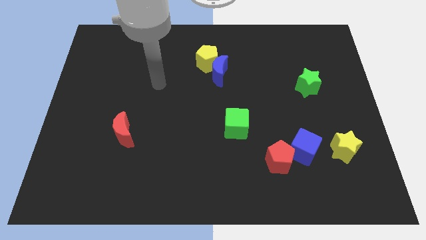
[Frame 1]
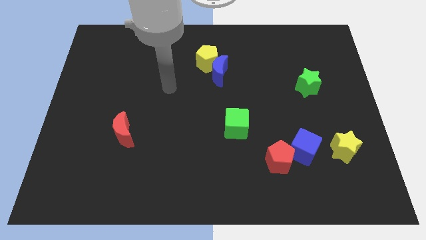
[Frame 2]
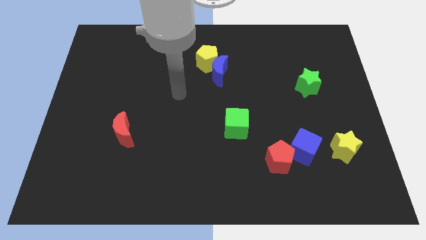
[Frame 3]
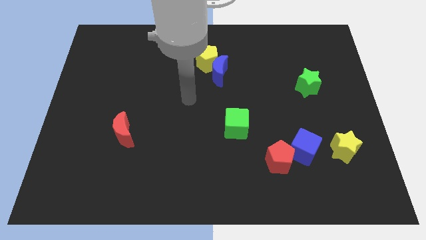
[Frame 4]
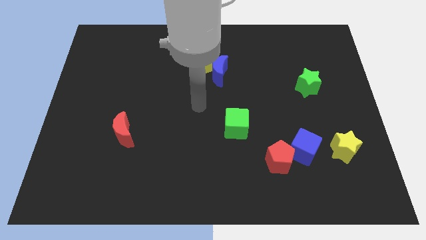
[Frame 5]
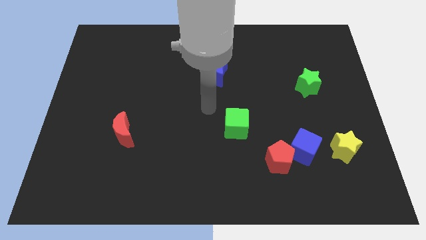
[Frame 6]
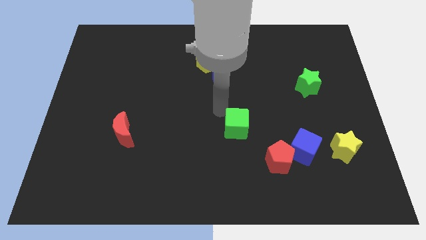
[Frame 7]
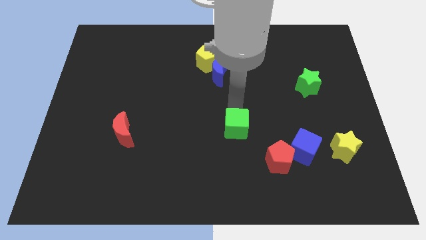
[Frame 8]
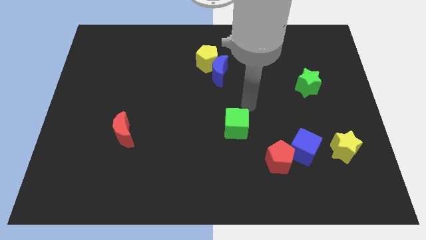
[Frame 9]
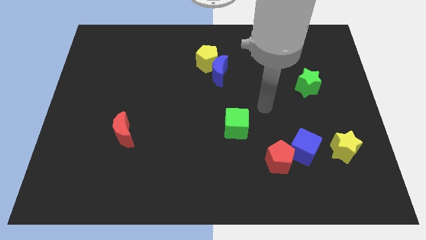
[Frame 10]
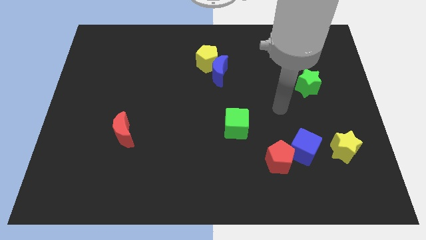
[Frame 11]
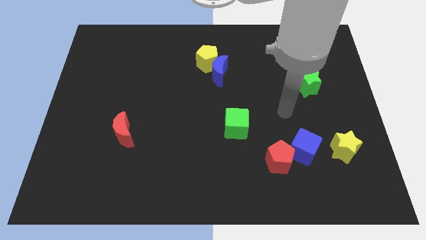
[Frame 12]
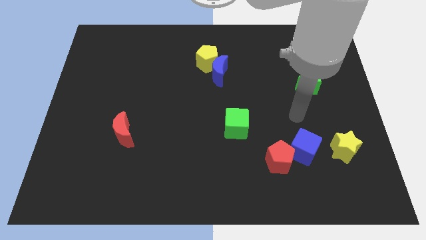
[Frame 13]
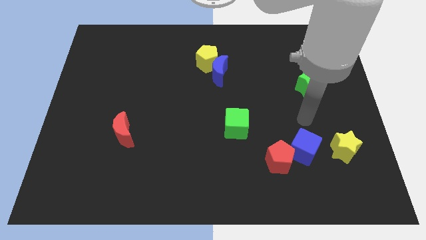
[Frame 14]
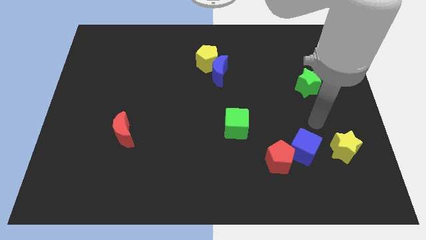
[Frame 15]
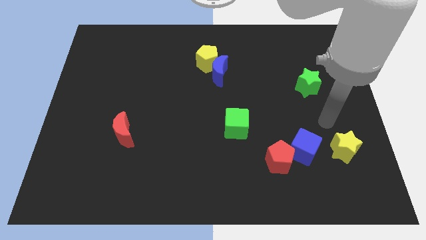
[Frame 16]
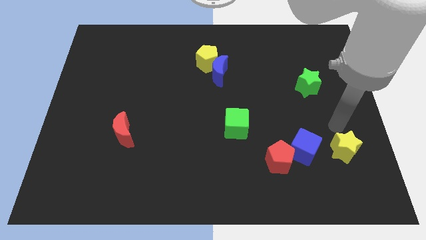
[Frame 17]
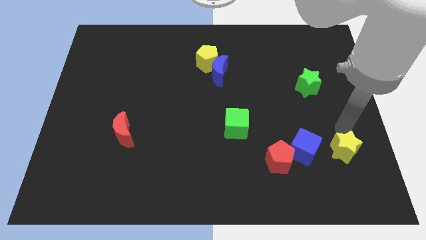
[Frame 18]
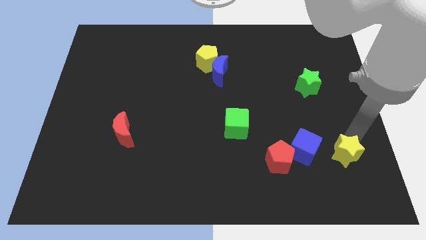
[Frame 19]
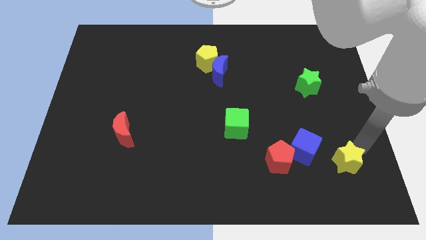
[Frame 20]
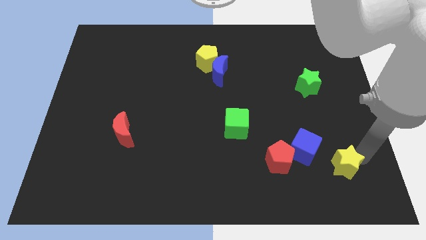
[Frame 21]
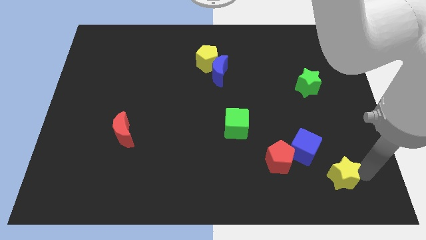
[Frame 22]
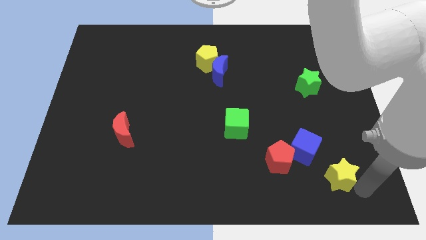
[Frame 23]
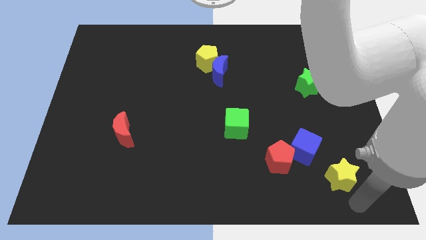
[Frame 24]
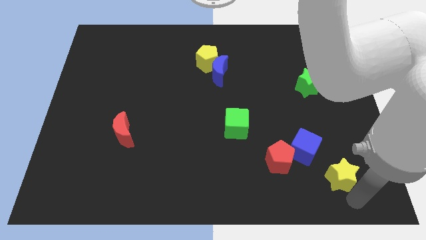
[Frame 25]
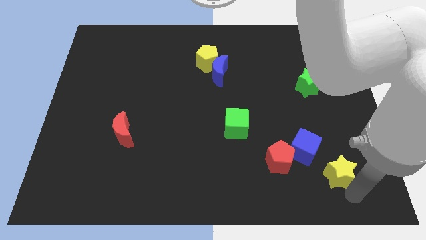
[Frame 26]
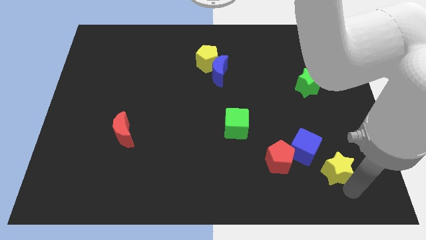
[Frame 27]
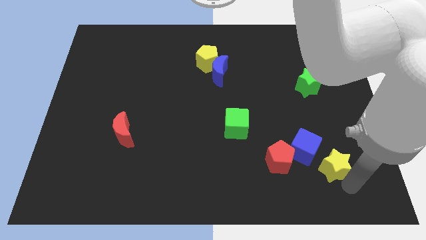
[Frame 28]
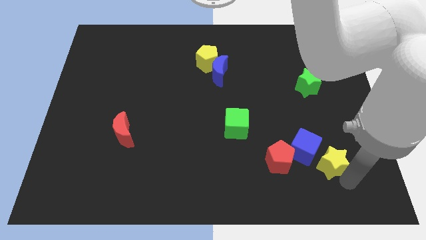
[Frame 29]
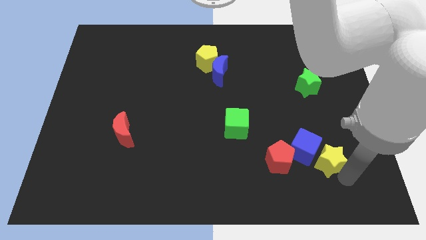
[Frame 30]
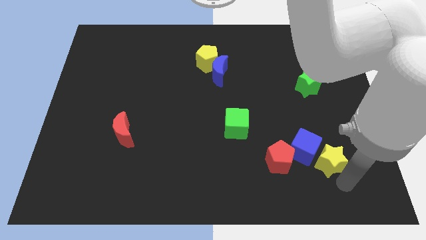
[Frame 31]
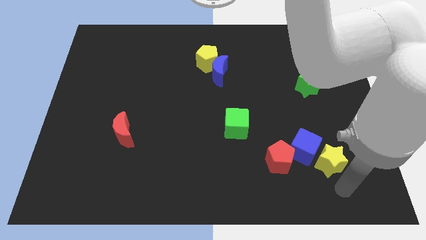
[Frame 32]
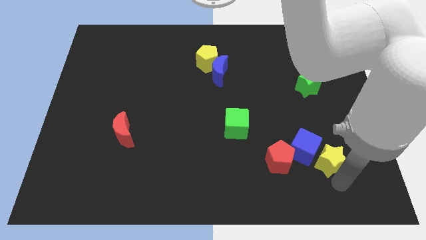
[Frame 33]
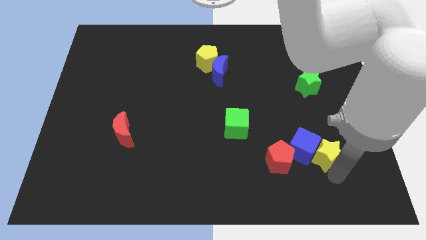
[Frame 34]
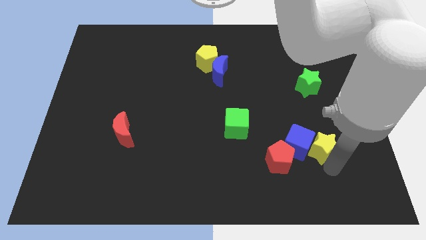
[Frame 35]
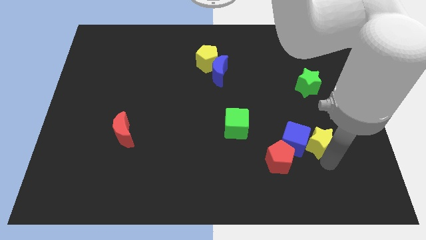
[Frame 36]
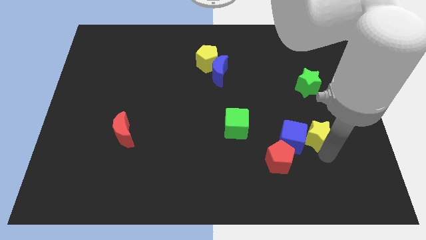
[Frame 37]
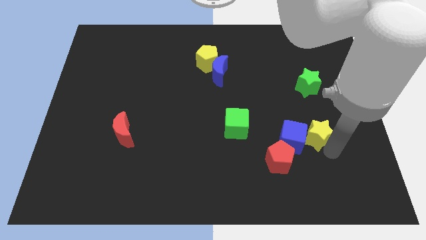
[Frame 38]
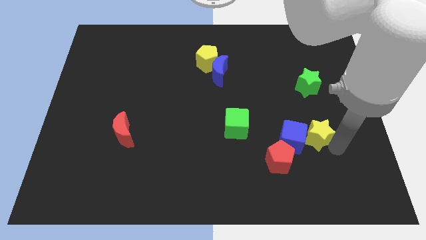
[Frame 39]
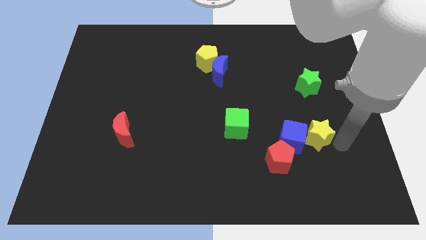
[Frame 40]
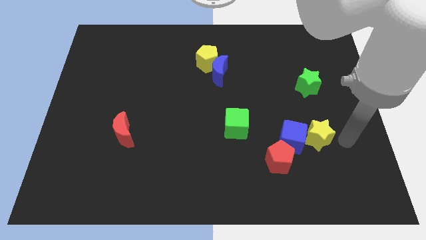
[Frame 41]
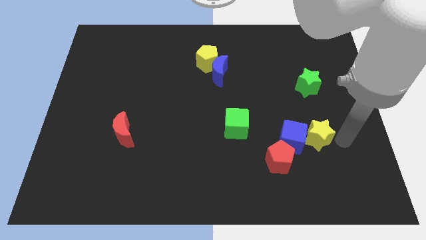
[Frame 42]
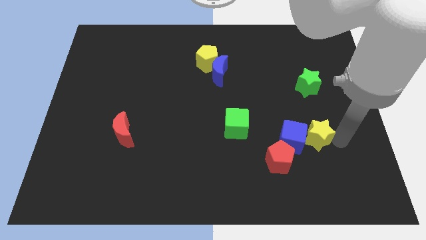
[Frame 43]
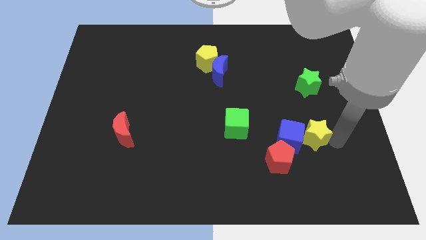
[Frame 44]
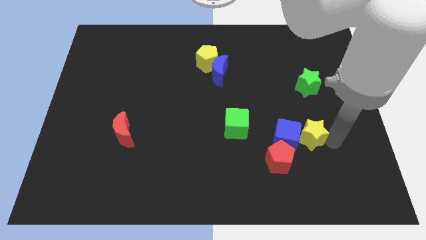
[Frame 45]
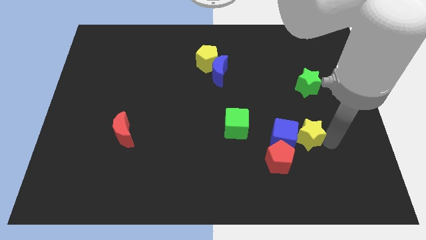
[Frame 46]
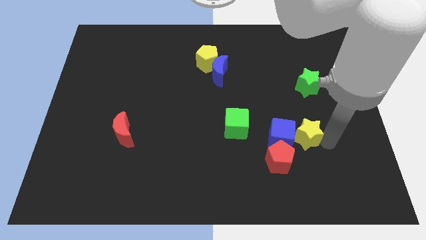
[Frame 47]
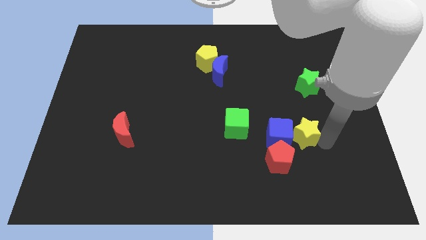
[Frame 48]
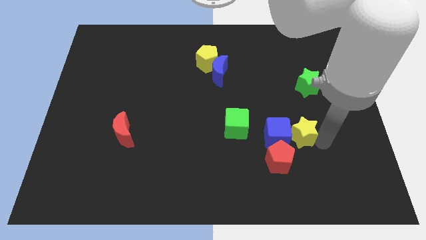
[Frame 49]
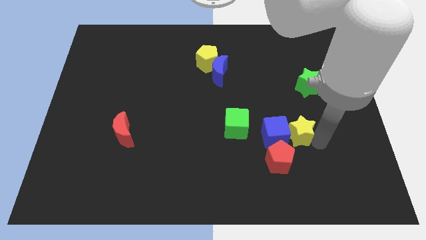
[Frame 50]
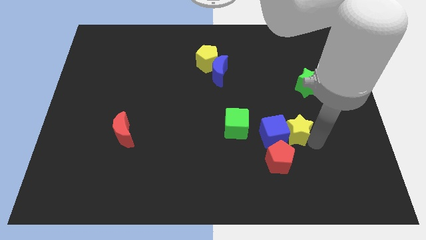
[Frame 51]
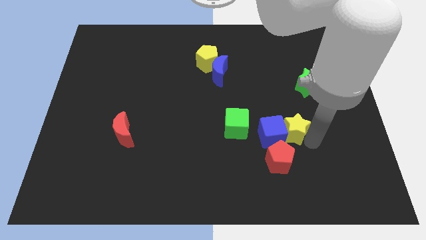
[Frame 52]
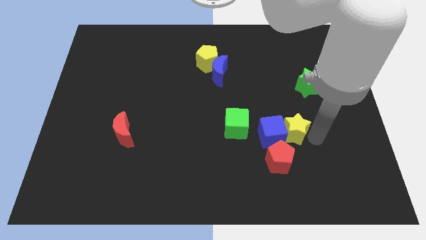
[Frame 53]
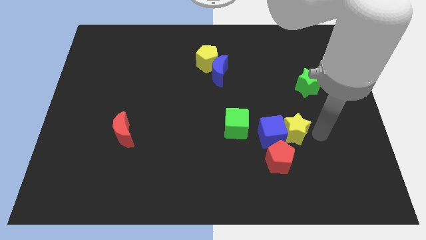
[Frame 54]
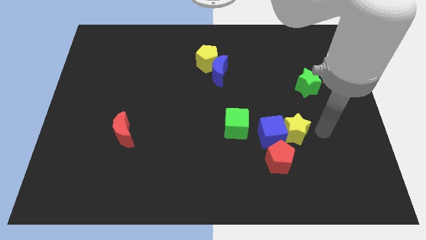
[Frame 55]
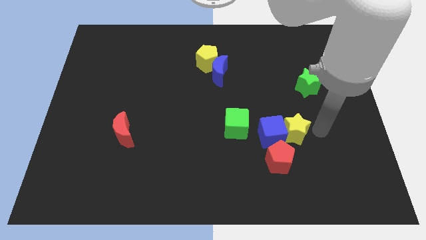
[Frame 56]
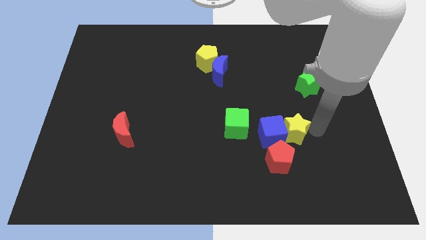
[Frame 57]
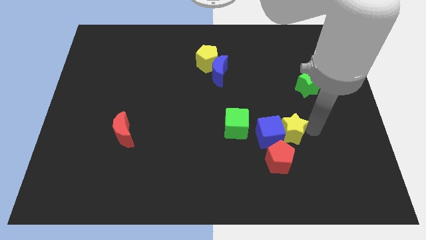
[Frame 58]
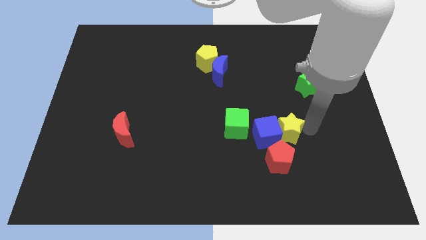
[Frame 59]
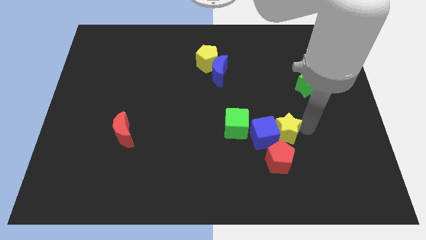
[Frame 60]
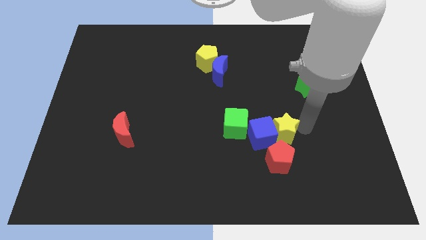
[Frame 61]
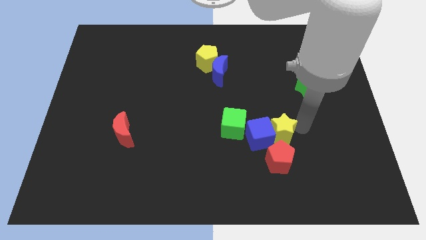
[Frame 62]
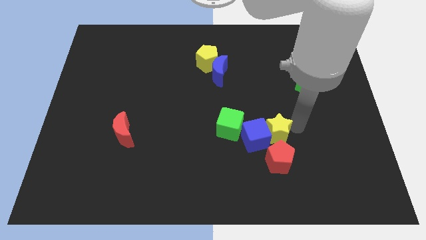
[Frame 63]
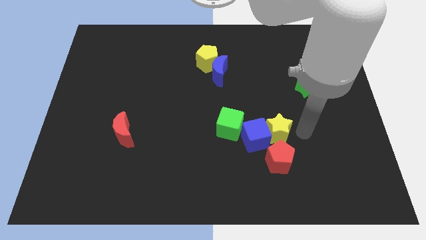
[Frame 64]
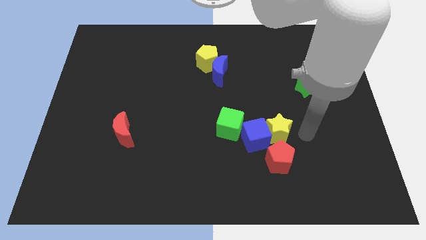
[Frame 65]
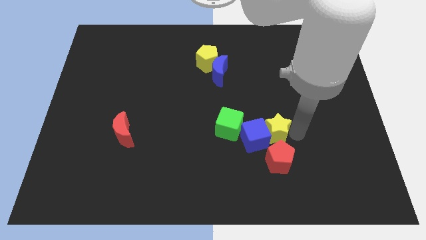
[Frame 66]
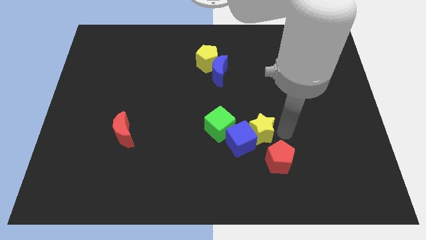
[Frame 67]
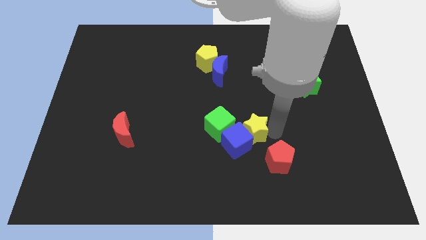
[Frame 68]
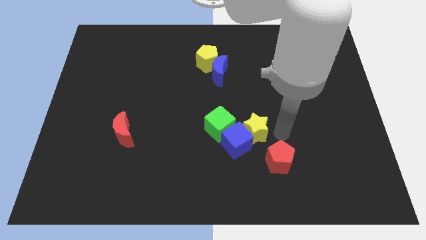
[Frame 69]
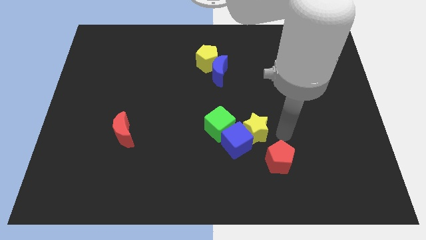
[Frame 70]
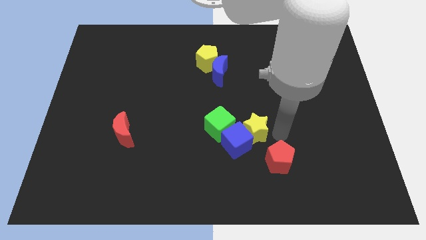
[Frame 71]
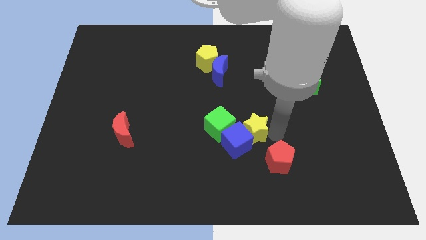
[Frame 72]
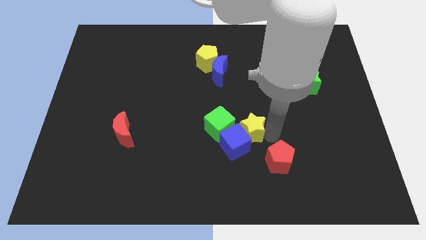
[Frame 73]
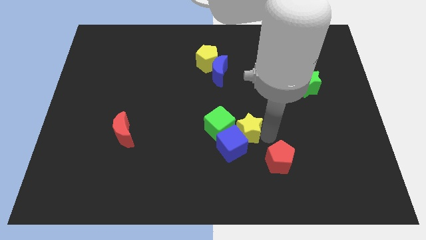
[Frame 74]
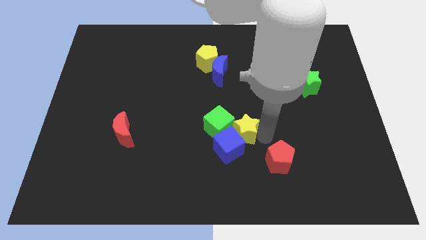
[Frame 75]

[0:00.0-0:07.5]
push the yellow star towards the green cube
